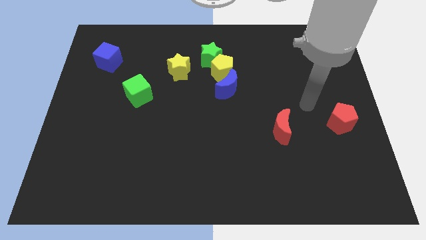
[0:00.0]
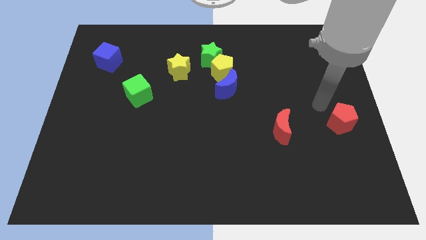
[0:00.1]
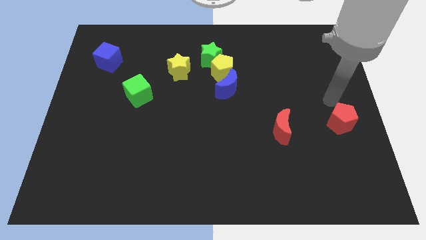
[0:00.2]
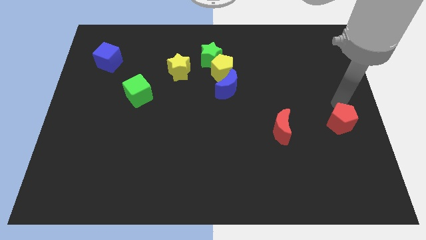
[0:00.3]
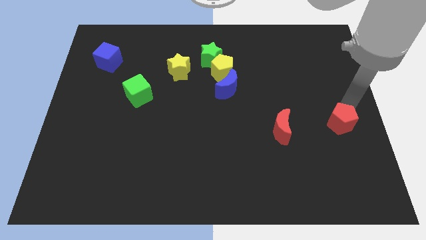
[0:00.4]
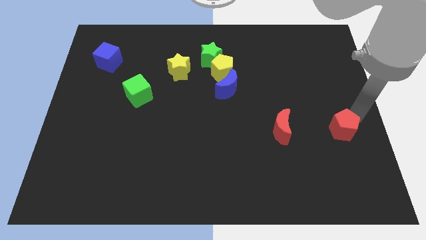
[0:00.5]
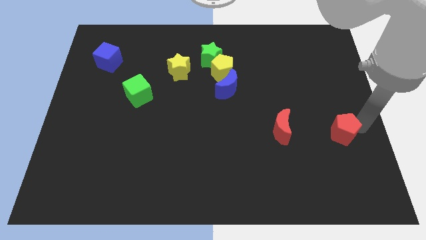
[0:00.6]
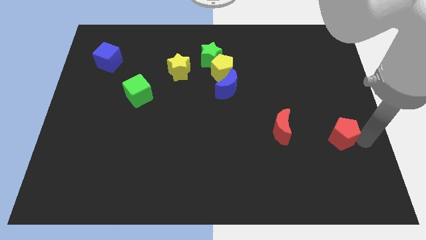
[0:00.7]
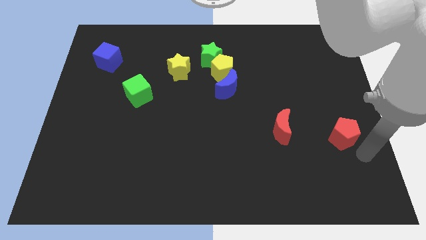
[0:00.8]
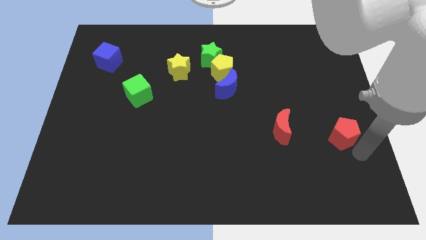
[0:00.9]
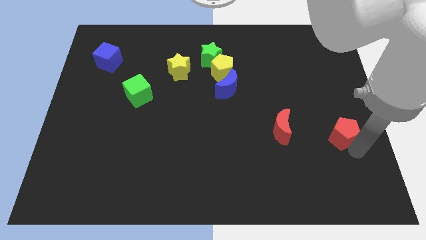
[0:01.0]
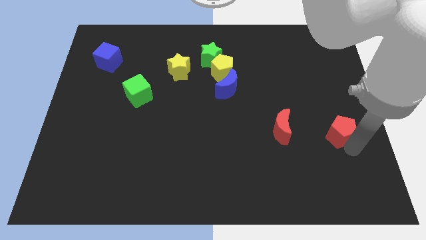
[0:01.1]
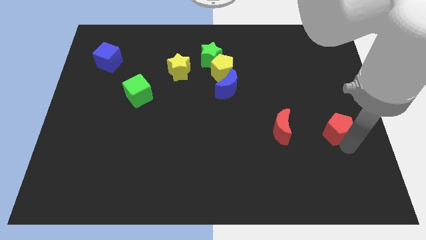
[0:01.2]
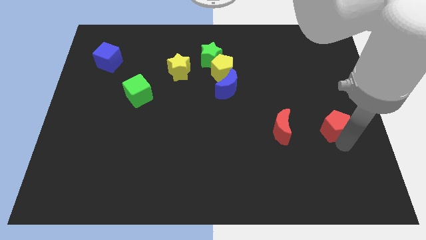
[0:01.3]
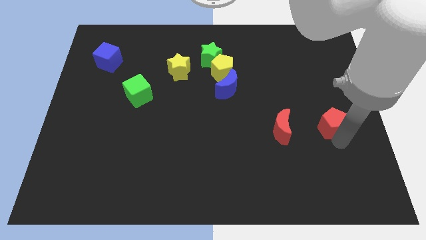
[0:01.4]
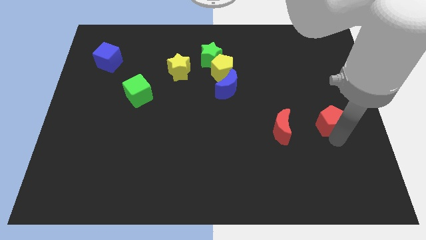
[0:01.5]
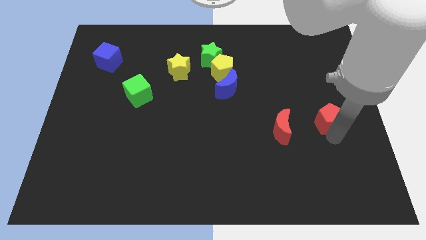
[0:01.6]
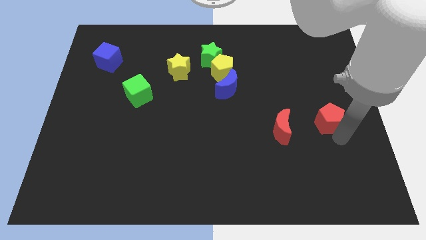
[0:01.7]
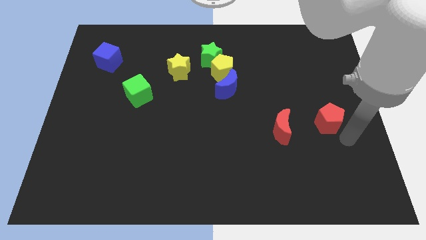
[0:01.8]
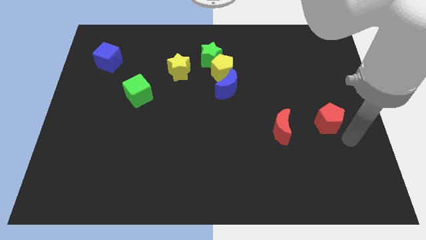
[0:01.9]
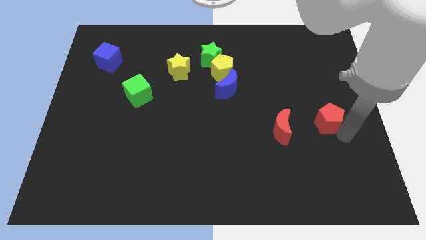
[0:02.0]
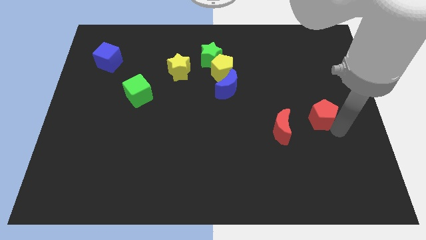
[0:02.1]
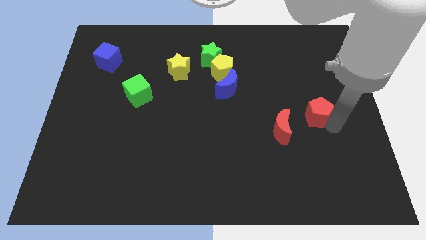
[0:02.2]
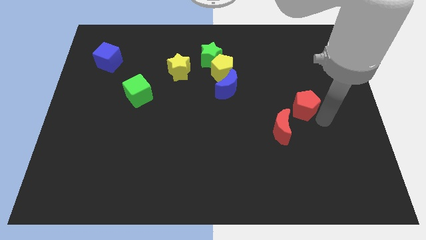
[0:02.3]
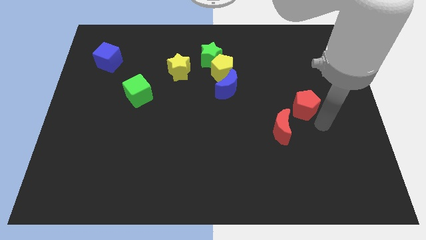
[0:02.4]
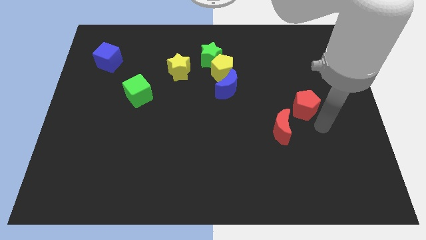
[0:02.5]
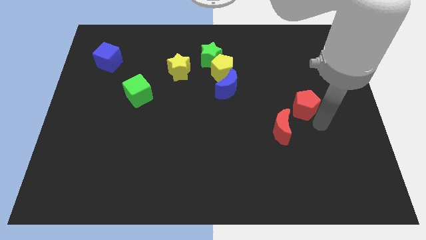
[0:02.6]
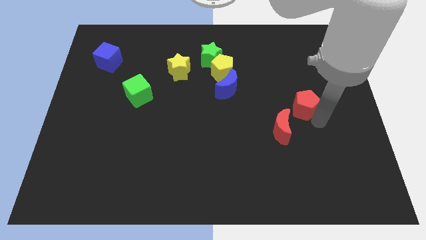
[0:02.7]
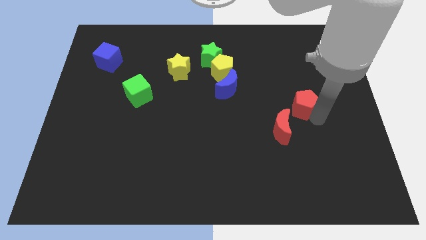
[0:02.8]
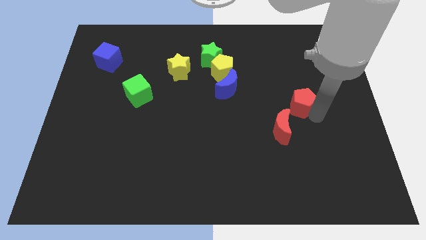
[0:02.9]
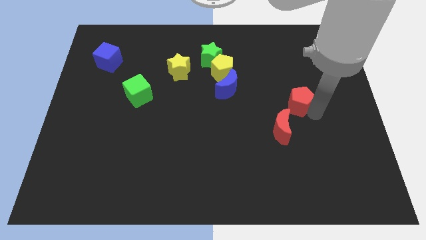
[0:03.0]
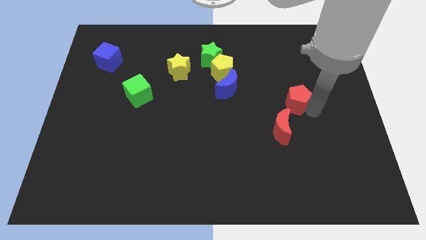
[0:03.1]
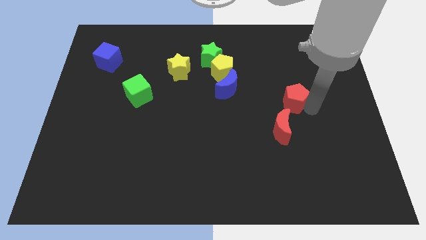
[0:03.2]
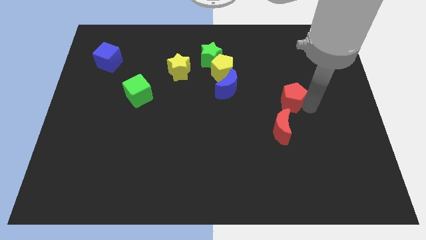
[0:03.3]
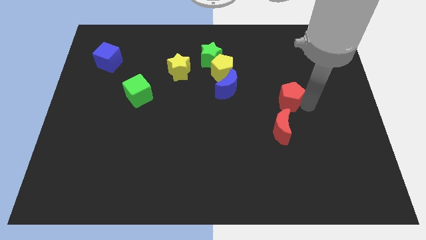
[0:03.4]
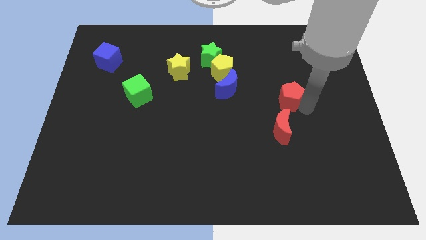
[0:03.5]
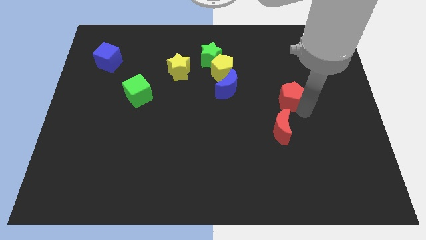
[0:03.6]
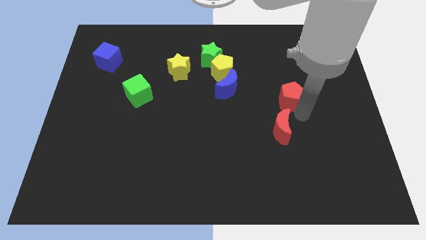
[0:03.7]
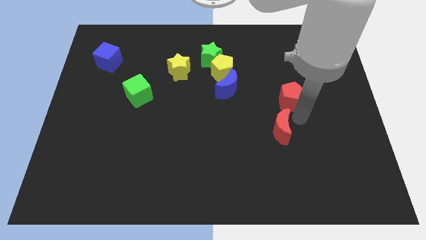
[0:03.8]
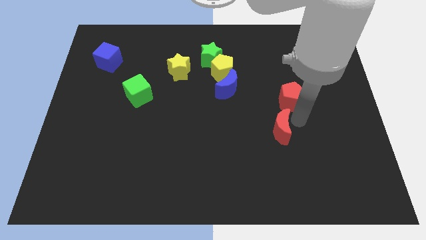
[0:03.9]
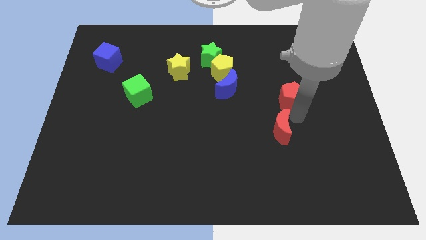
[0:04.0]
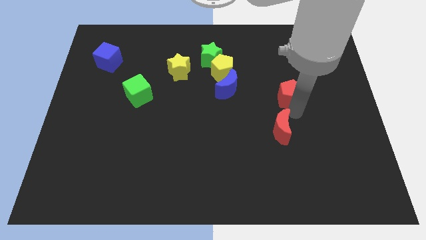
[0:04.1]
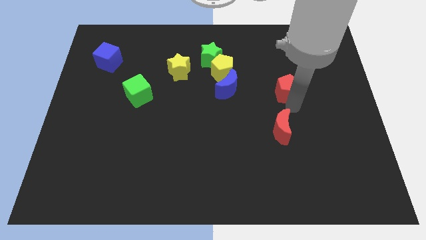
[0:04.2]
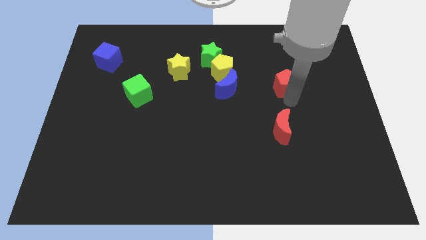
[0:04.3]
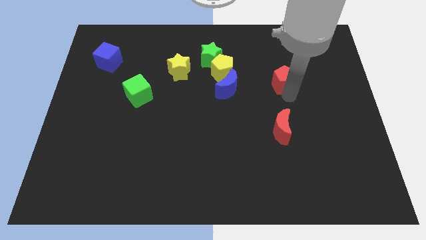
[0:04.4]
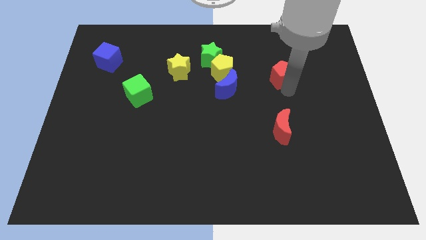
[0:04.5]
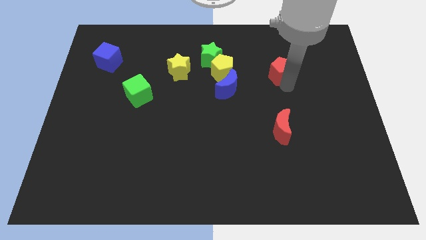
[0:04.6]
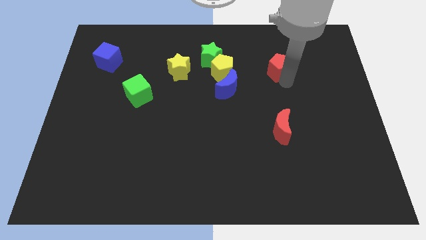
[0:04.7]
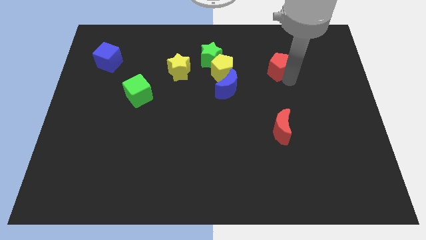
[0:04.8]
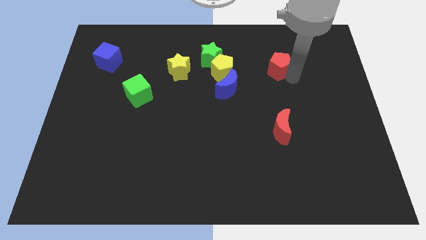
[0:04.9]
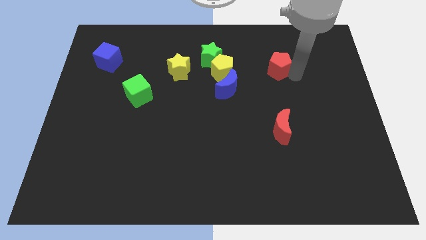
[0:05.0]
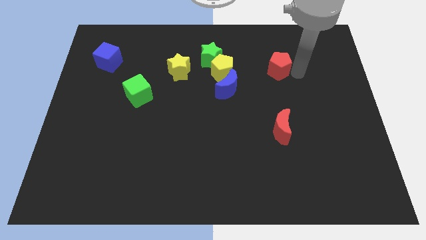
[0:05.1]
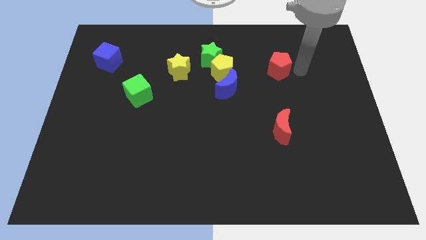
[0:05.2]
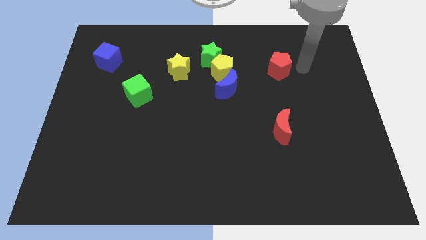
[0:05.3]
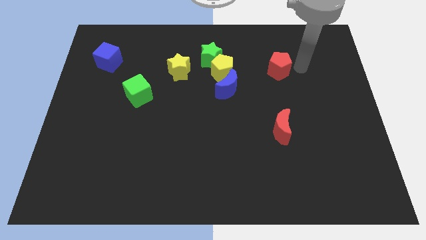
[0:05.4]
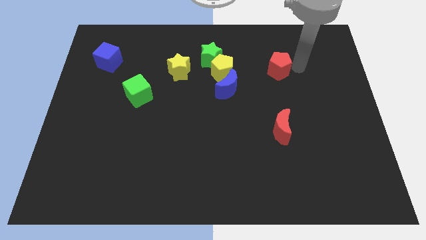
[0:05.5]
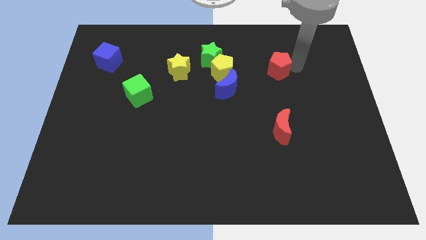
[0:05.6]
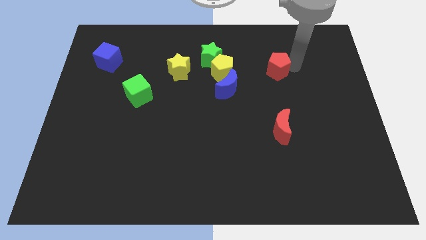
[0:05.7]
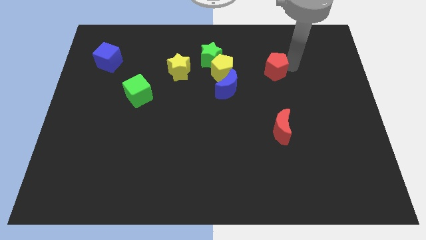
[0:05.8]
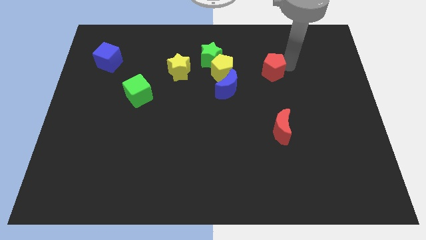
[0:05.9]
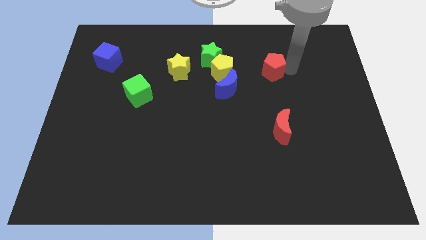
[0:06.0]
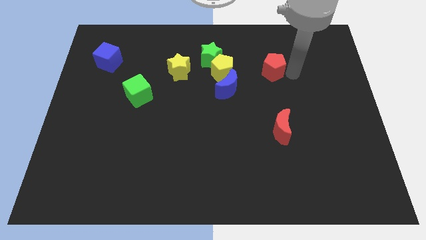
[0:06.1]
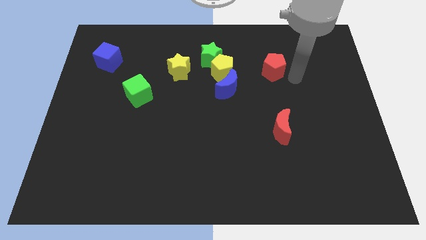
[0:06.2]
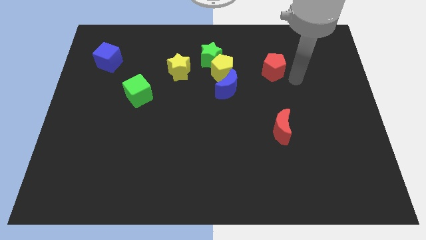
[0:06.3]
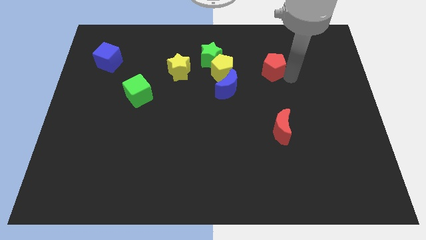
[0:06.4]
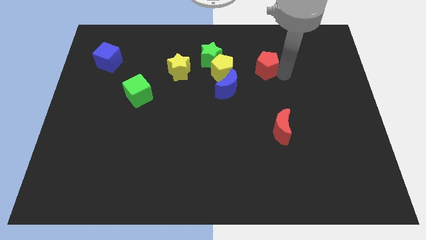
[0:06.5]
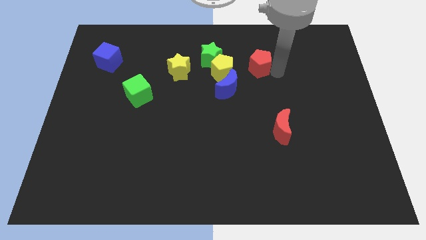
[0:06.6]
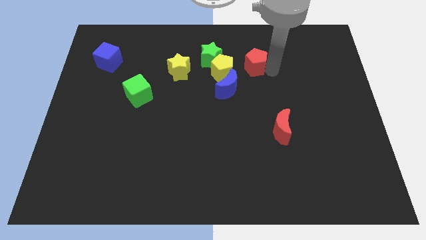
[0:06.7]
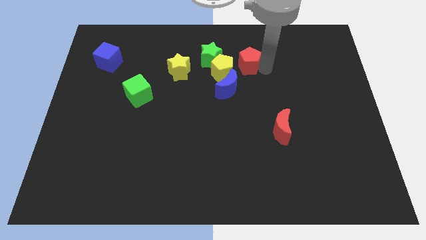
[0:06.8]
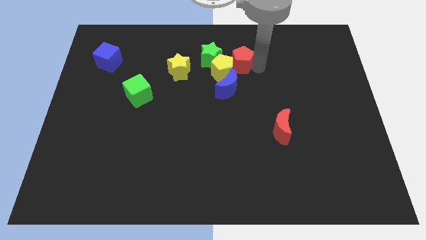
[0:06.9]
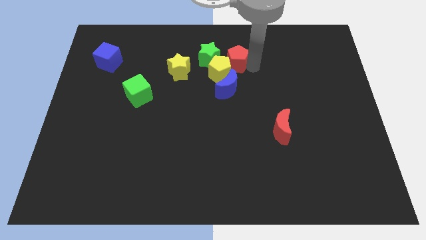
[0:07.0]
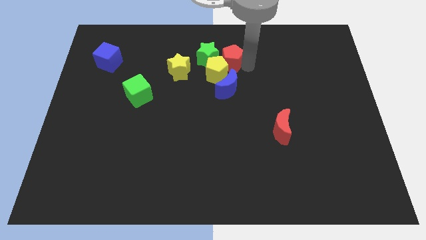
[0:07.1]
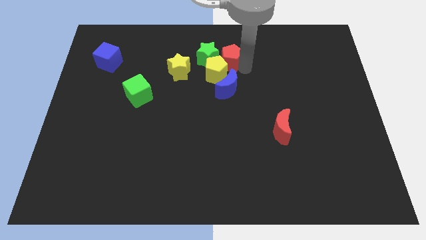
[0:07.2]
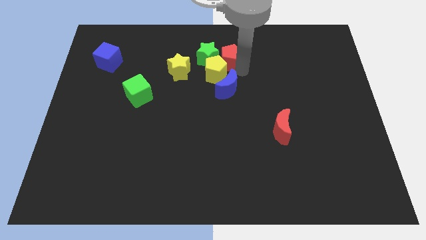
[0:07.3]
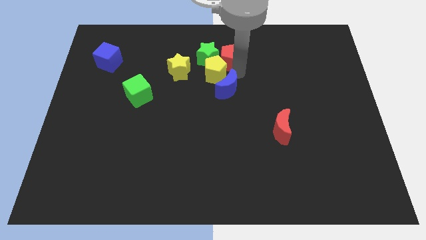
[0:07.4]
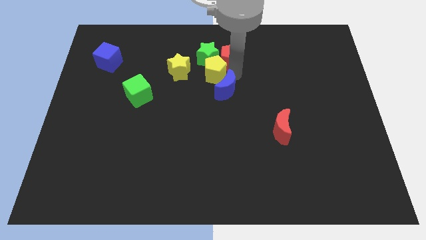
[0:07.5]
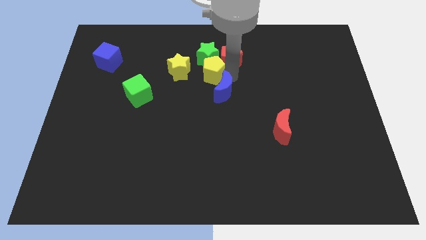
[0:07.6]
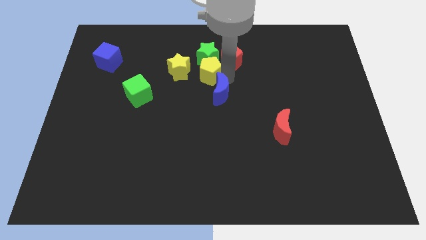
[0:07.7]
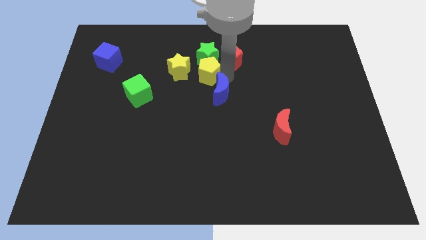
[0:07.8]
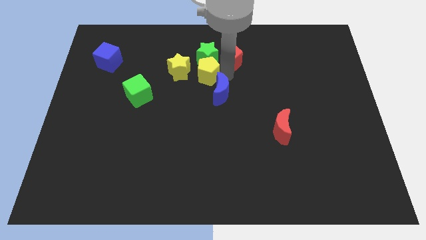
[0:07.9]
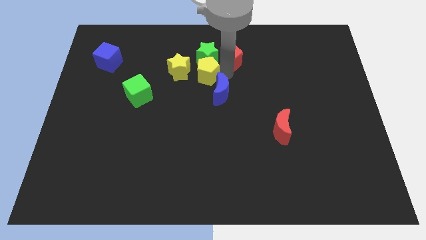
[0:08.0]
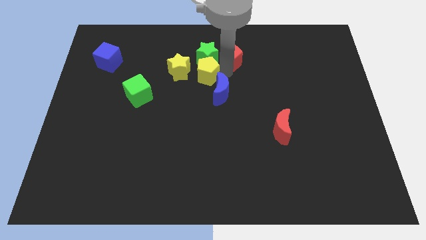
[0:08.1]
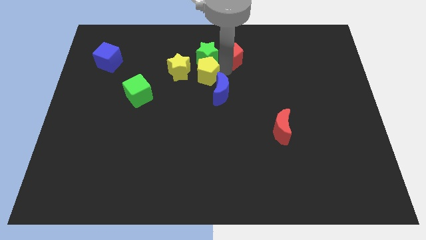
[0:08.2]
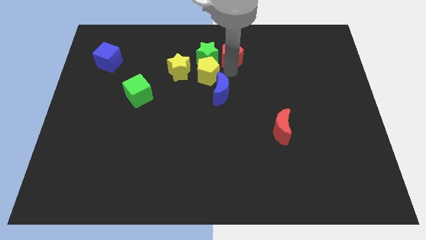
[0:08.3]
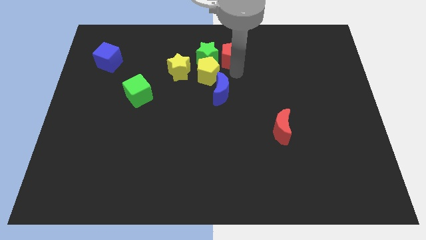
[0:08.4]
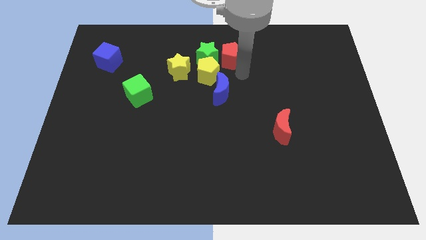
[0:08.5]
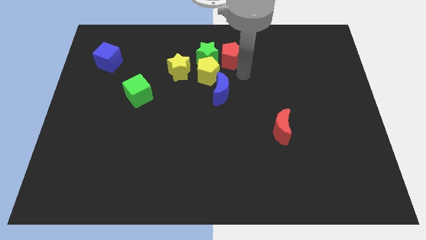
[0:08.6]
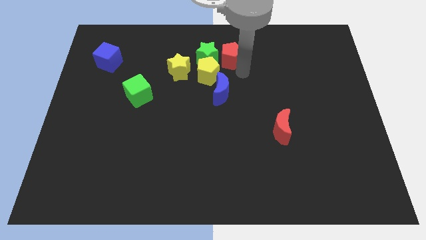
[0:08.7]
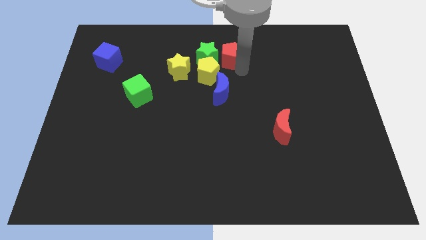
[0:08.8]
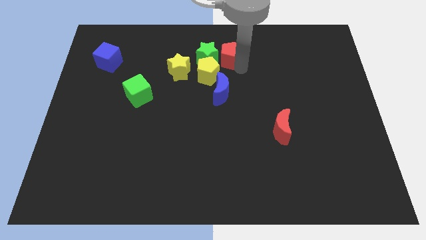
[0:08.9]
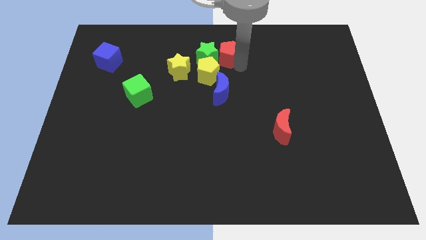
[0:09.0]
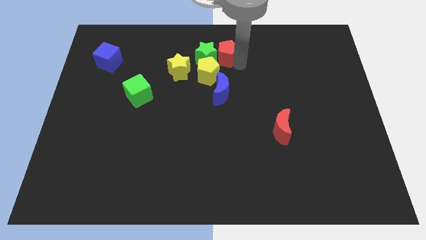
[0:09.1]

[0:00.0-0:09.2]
slide the red pentagon to the top side
